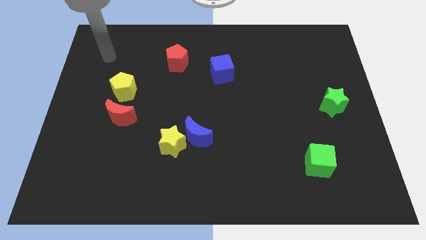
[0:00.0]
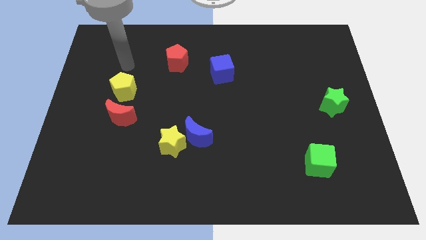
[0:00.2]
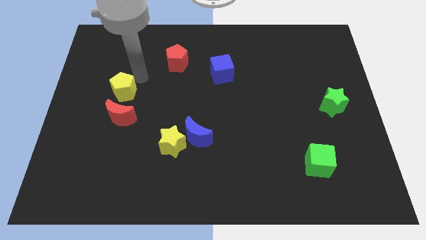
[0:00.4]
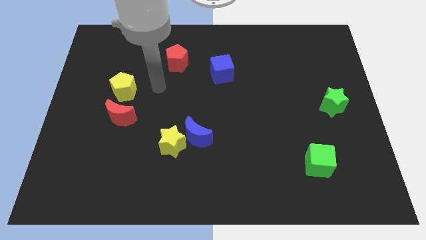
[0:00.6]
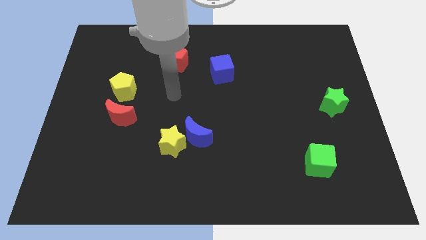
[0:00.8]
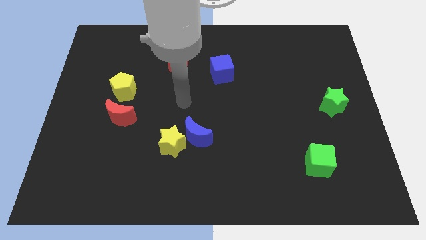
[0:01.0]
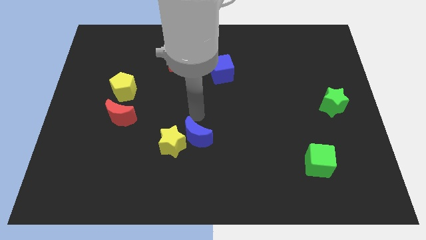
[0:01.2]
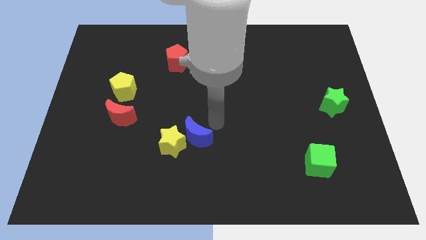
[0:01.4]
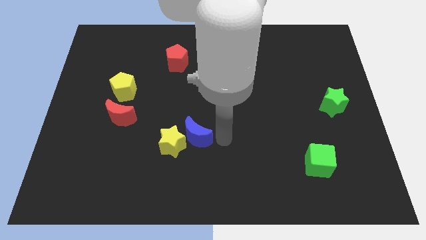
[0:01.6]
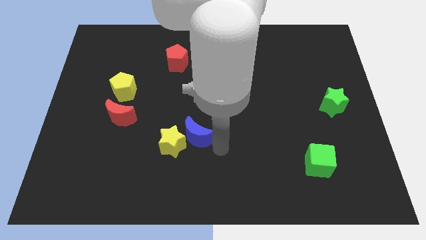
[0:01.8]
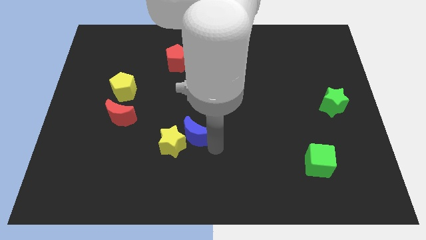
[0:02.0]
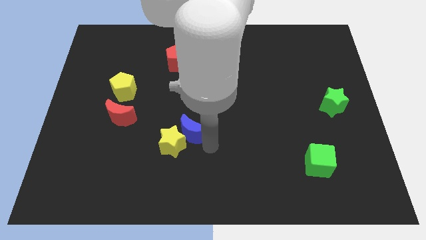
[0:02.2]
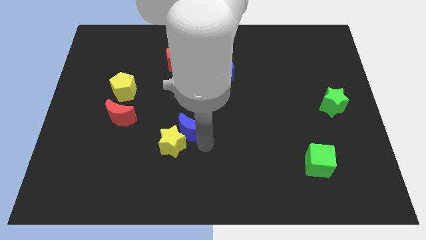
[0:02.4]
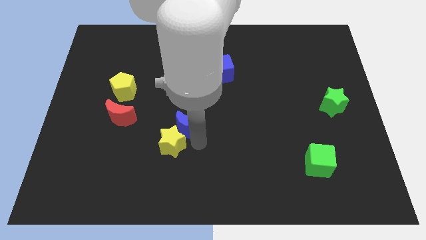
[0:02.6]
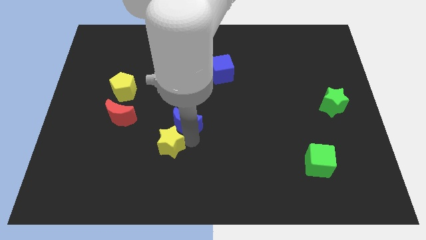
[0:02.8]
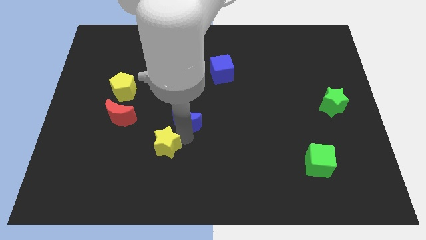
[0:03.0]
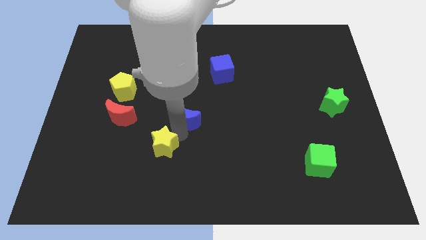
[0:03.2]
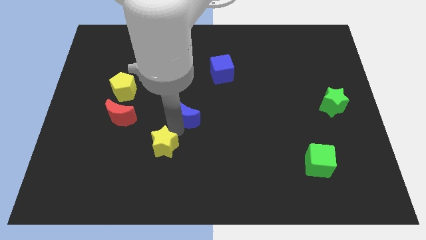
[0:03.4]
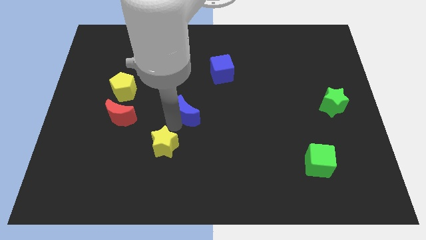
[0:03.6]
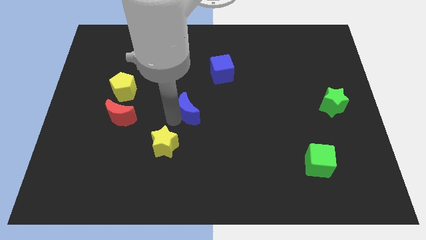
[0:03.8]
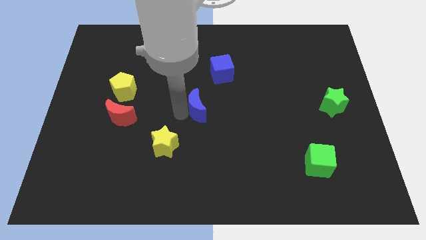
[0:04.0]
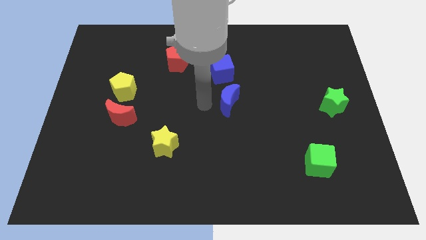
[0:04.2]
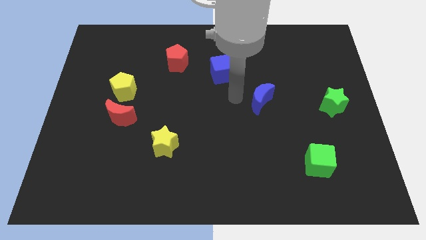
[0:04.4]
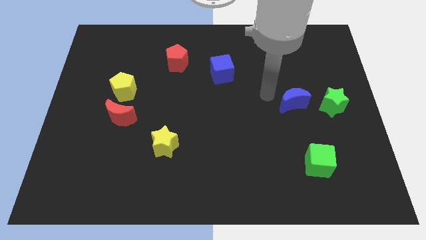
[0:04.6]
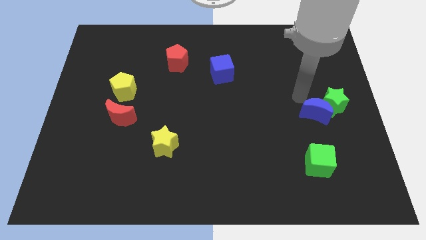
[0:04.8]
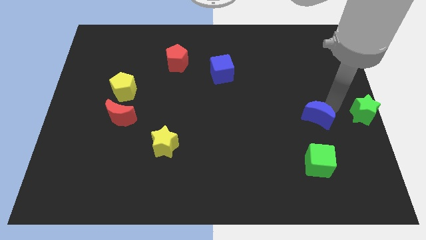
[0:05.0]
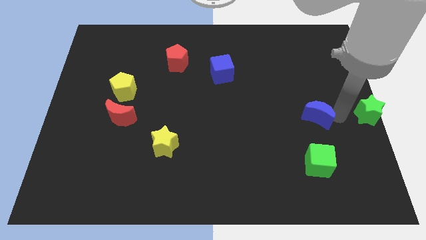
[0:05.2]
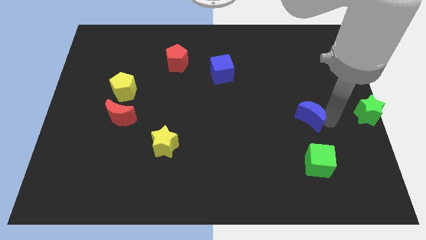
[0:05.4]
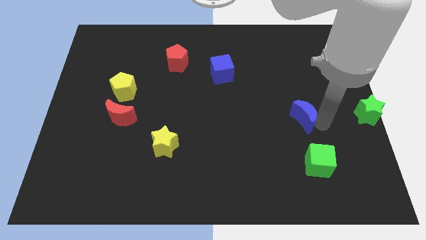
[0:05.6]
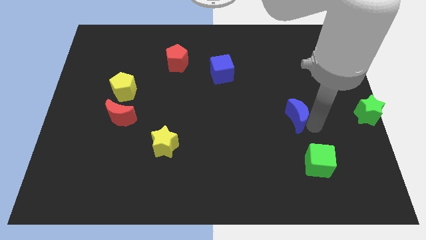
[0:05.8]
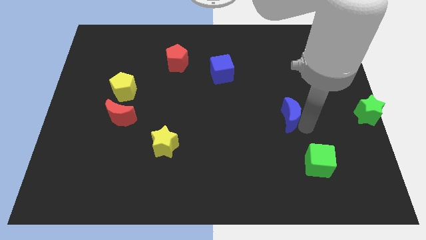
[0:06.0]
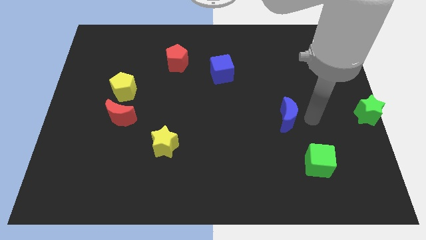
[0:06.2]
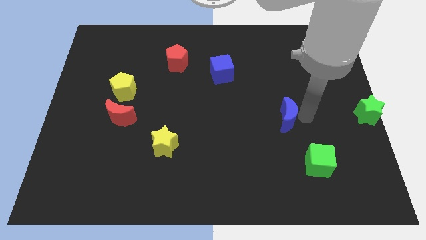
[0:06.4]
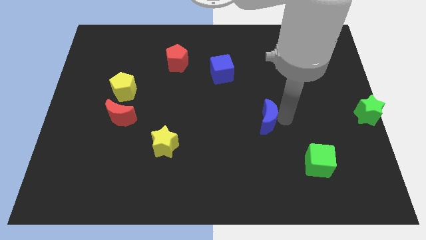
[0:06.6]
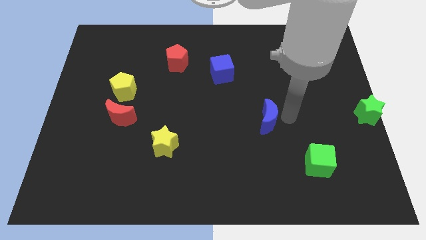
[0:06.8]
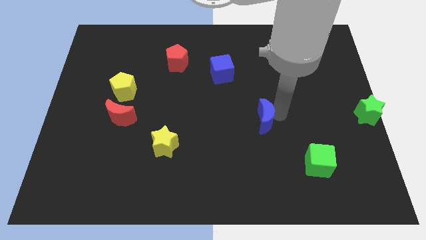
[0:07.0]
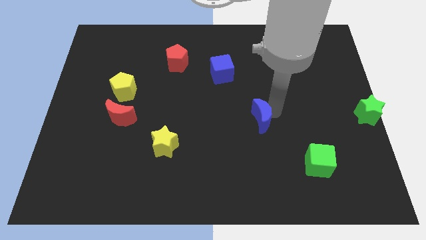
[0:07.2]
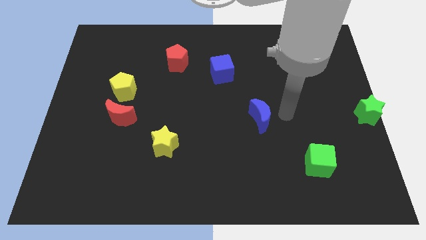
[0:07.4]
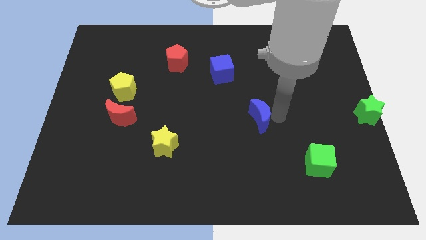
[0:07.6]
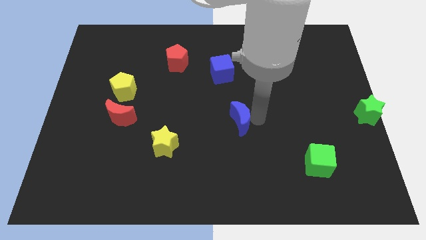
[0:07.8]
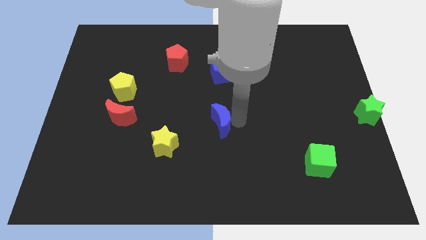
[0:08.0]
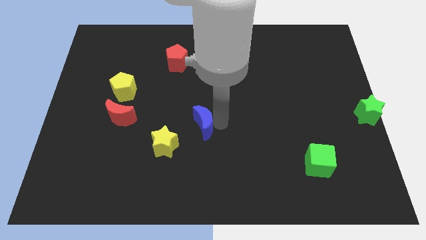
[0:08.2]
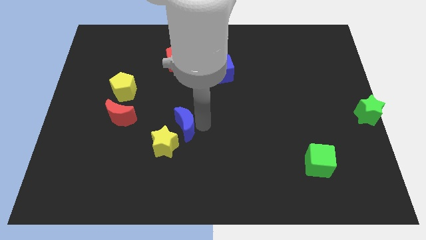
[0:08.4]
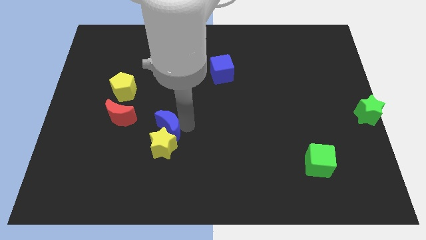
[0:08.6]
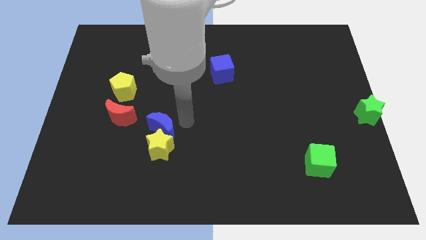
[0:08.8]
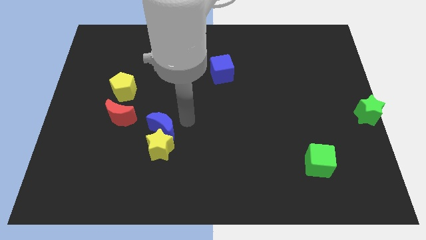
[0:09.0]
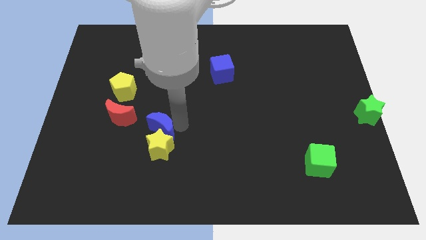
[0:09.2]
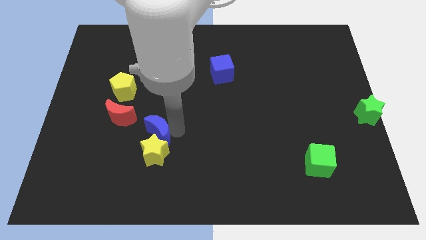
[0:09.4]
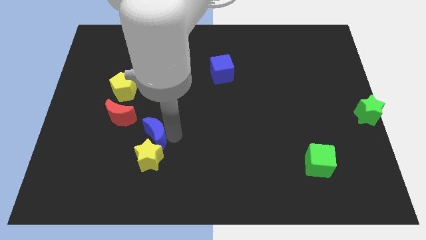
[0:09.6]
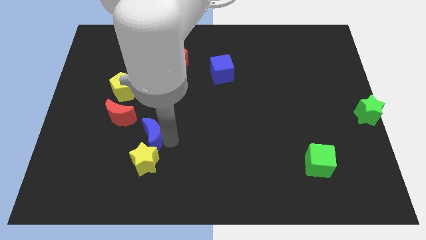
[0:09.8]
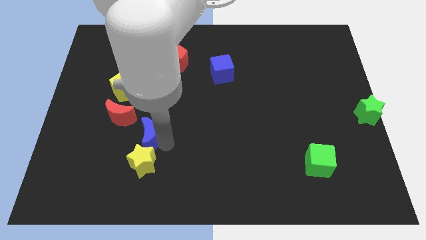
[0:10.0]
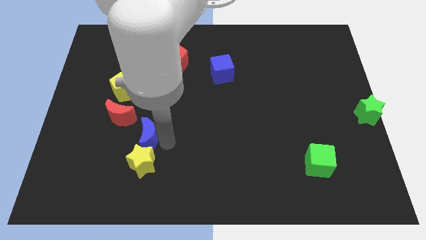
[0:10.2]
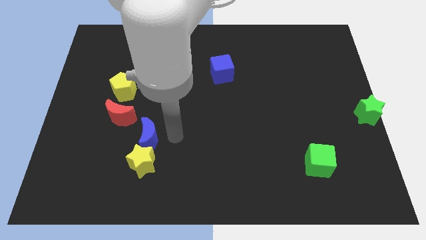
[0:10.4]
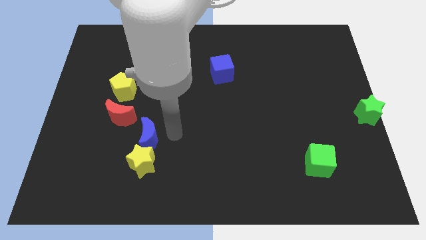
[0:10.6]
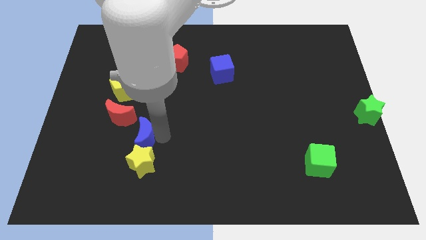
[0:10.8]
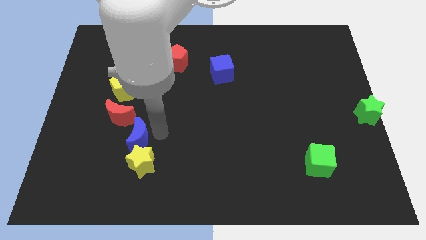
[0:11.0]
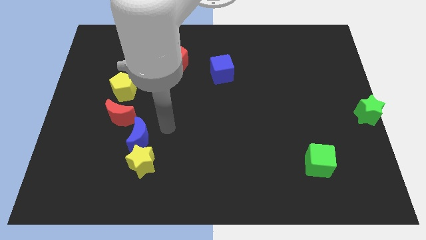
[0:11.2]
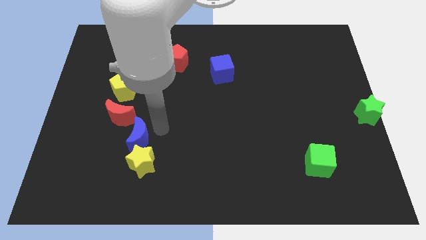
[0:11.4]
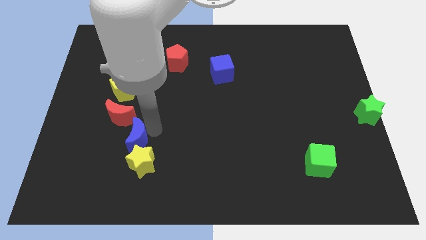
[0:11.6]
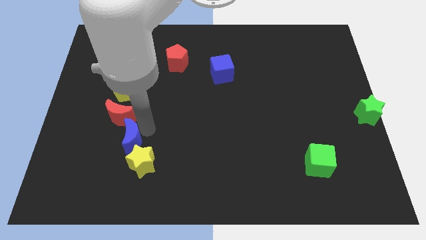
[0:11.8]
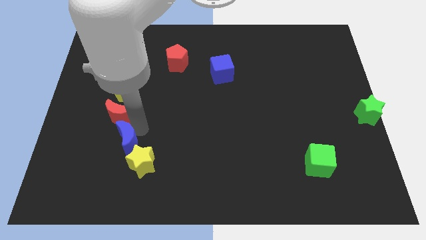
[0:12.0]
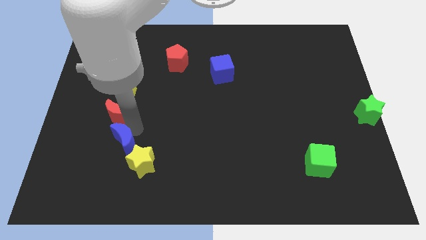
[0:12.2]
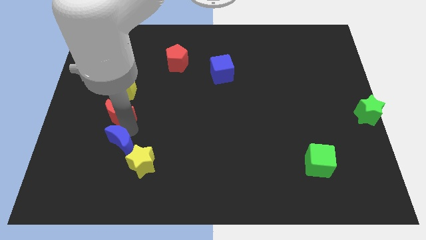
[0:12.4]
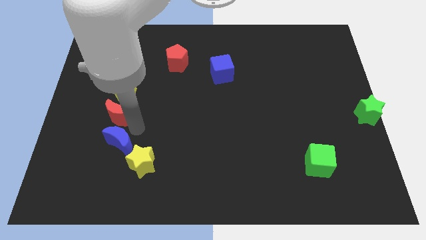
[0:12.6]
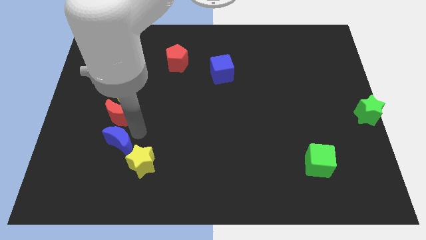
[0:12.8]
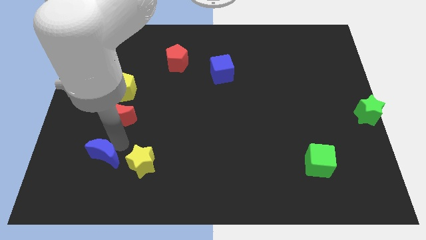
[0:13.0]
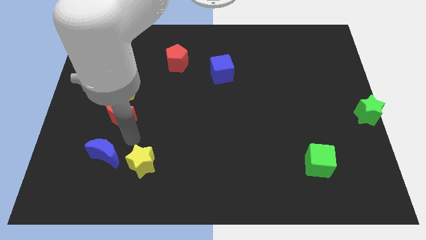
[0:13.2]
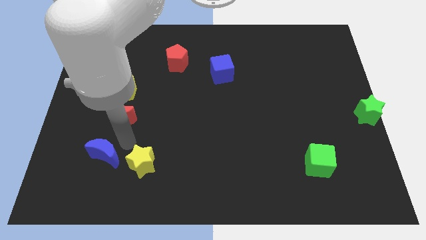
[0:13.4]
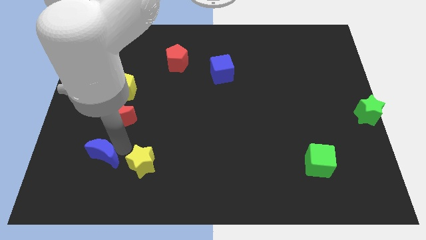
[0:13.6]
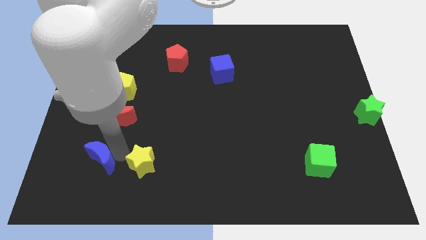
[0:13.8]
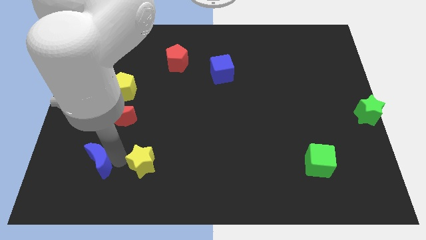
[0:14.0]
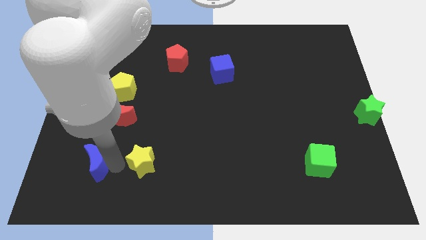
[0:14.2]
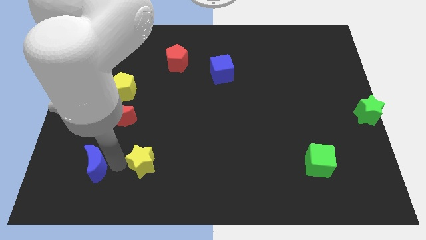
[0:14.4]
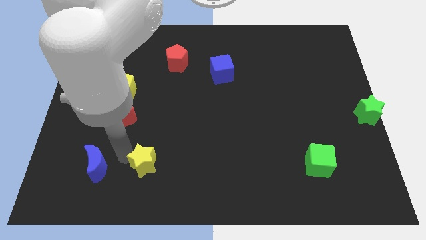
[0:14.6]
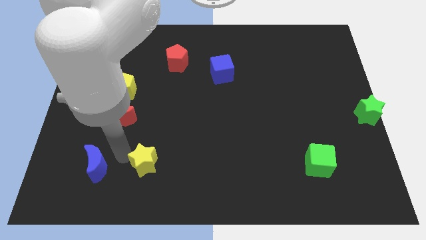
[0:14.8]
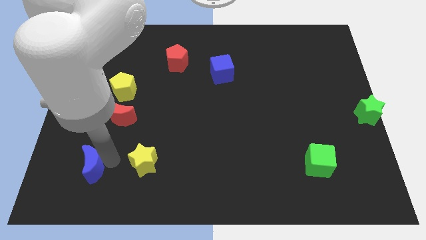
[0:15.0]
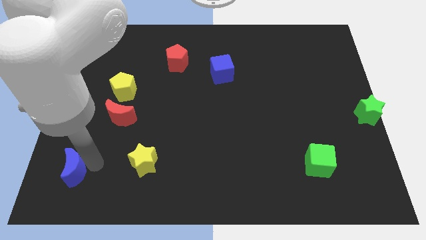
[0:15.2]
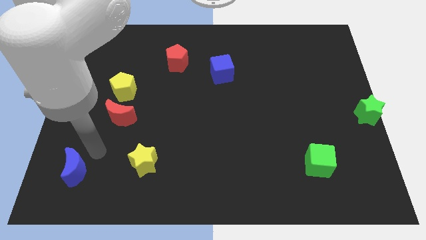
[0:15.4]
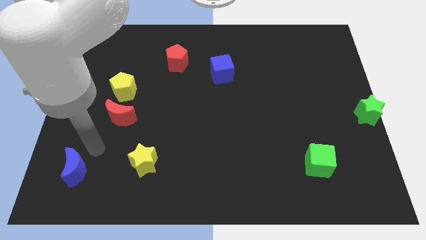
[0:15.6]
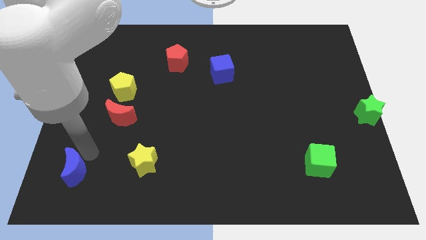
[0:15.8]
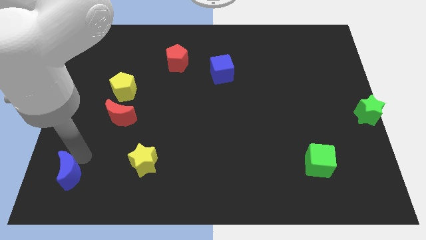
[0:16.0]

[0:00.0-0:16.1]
push the blue moon to the lower left corner
